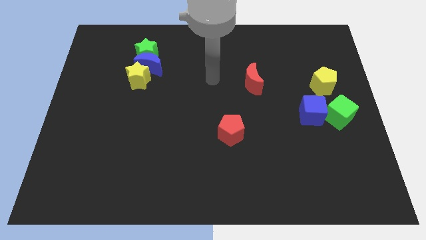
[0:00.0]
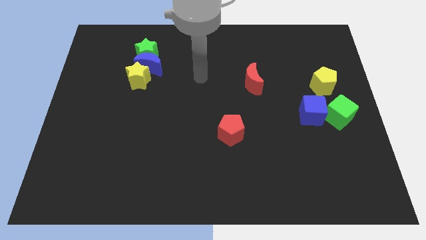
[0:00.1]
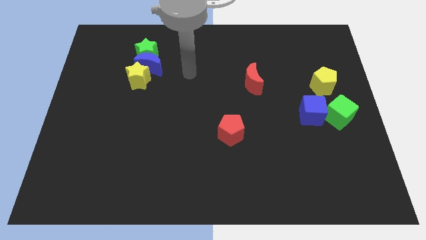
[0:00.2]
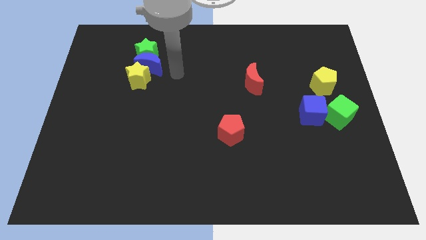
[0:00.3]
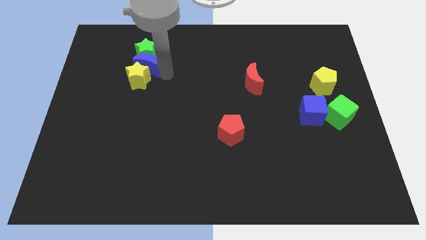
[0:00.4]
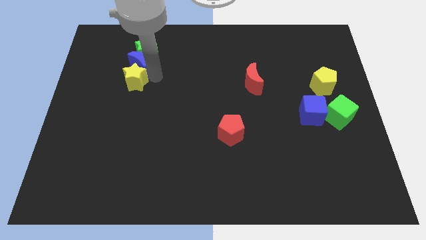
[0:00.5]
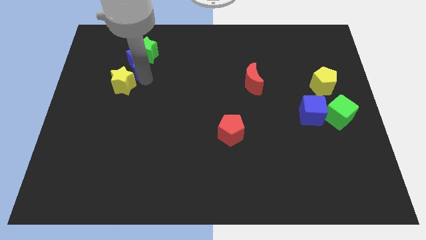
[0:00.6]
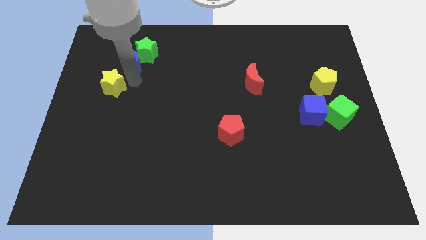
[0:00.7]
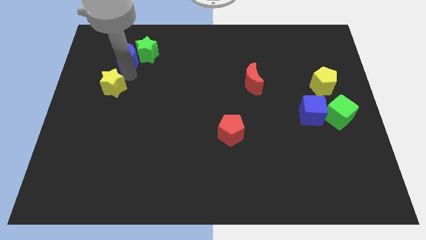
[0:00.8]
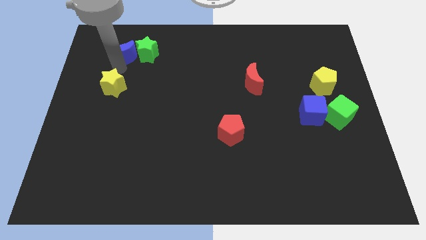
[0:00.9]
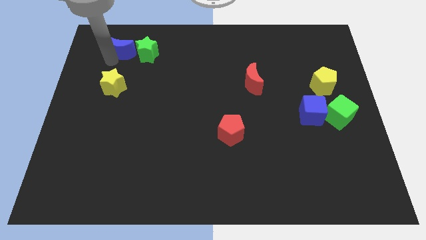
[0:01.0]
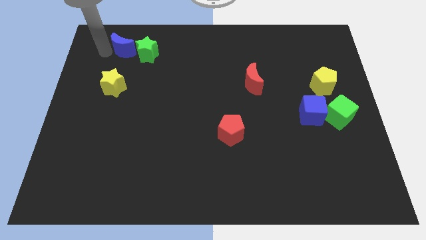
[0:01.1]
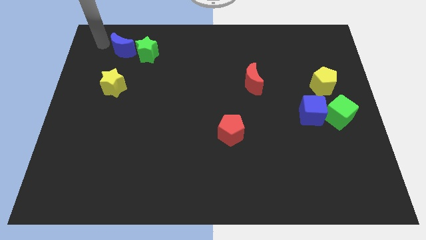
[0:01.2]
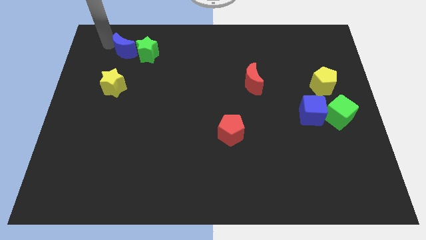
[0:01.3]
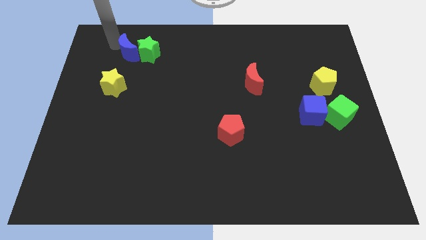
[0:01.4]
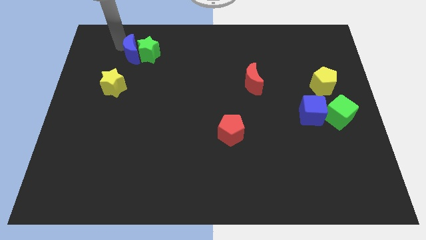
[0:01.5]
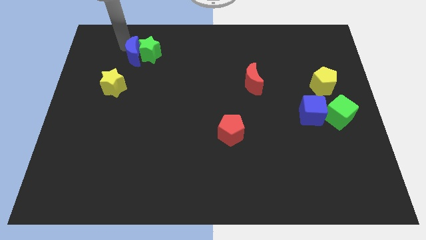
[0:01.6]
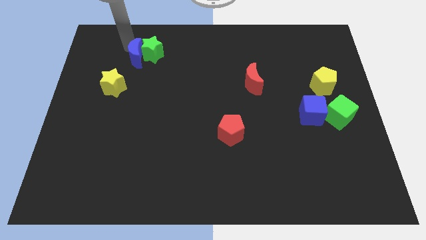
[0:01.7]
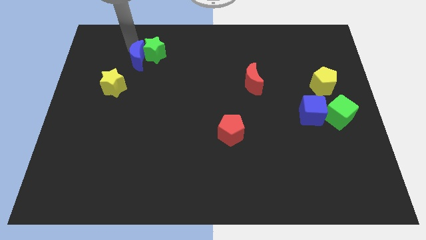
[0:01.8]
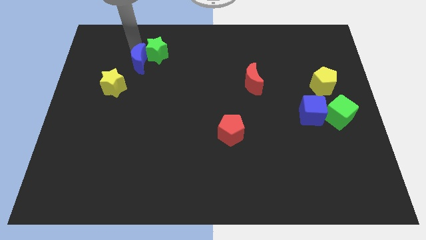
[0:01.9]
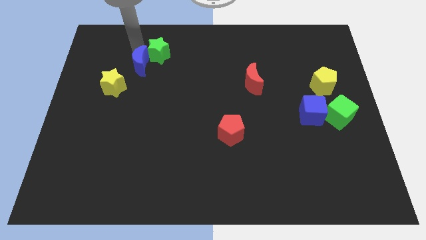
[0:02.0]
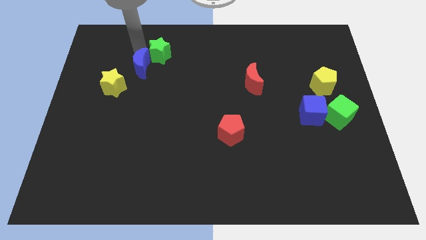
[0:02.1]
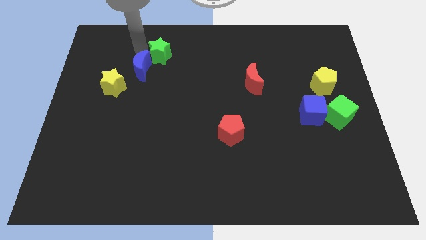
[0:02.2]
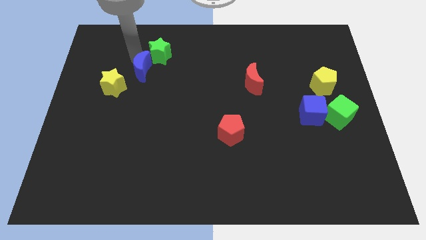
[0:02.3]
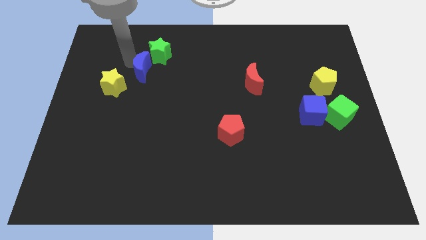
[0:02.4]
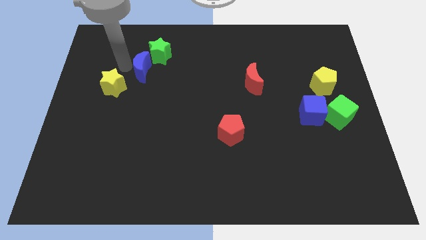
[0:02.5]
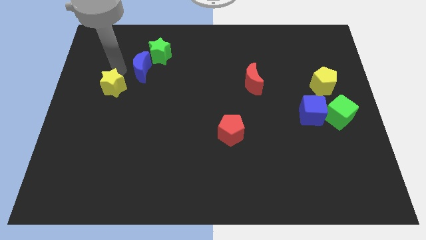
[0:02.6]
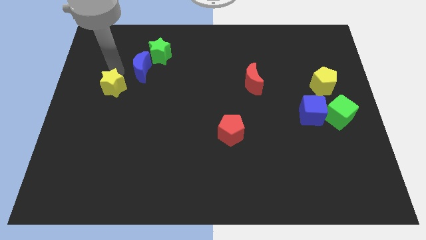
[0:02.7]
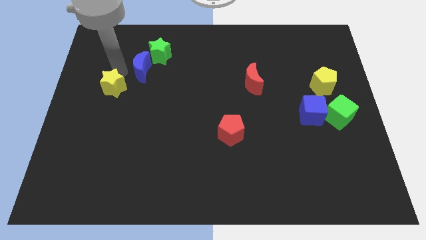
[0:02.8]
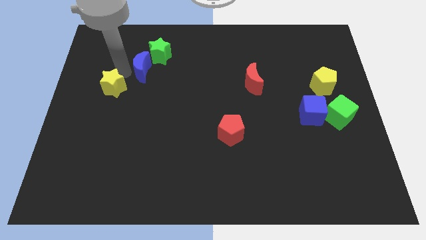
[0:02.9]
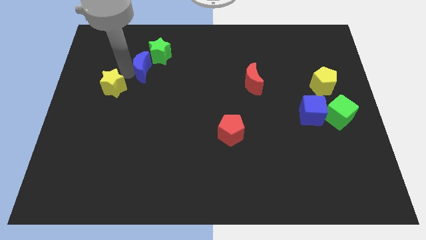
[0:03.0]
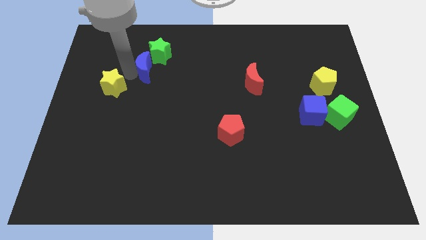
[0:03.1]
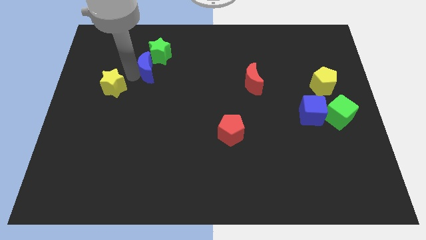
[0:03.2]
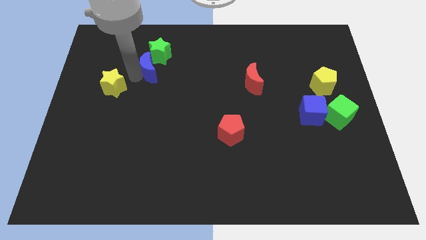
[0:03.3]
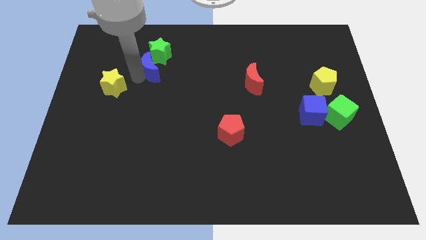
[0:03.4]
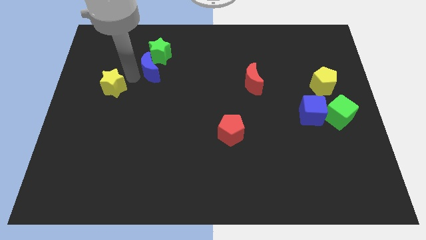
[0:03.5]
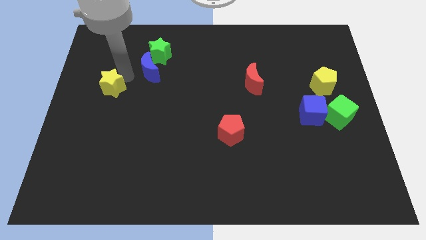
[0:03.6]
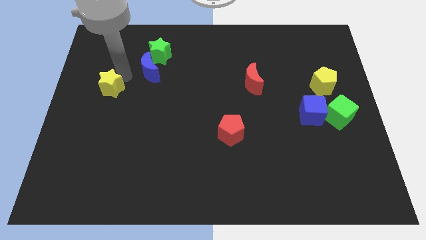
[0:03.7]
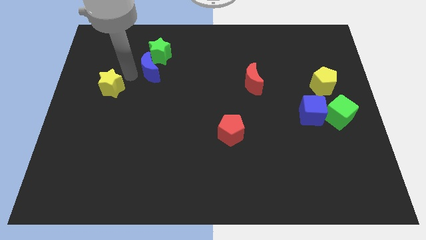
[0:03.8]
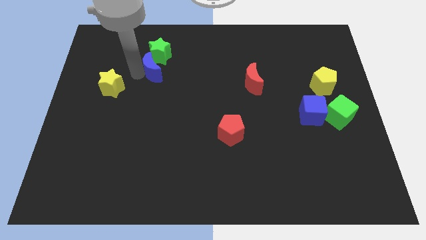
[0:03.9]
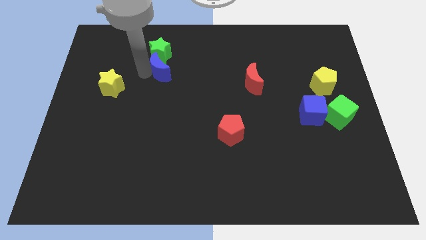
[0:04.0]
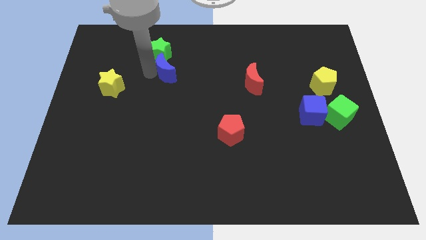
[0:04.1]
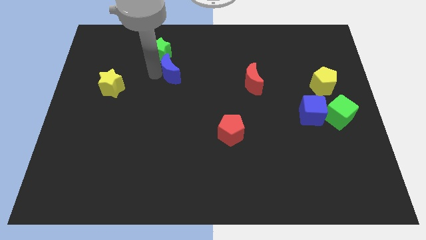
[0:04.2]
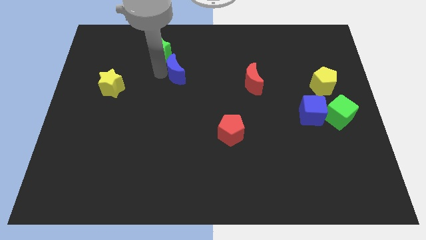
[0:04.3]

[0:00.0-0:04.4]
pull the blue moon apart from the green star and yellow star

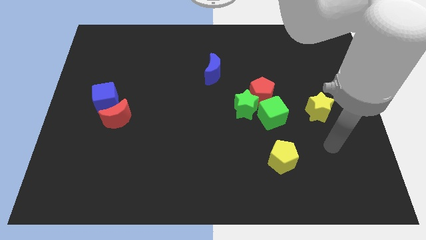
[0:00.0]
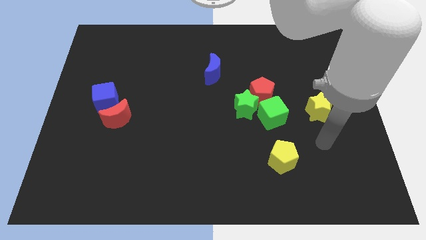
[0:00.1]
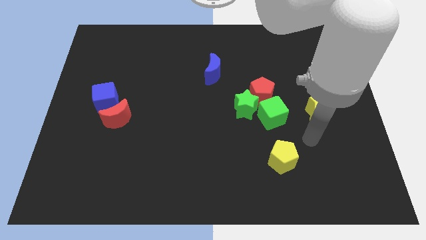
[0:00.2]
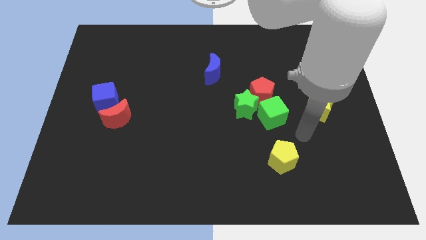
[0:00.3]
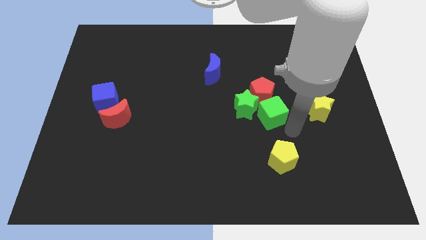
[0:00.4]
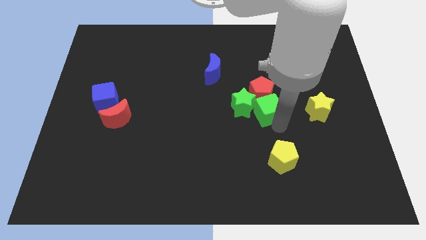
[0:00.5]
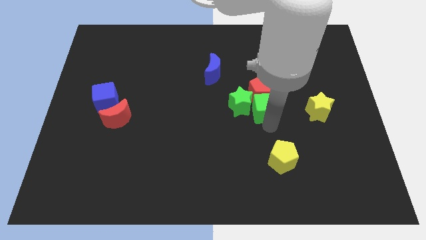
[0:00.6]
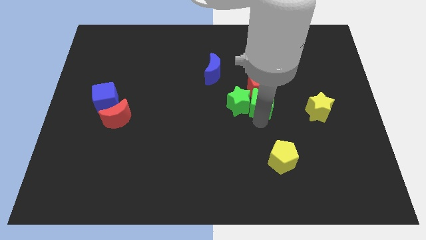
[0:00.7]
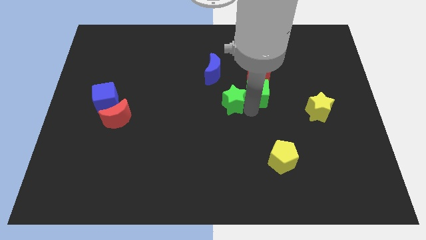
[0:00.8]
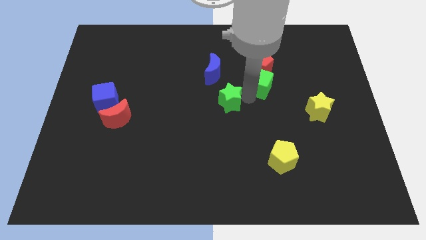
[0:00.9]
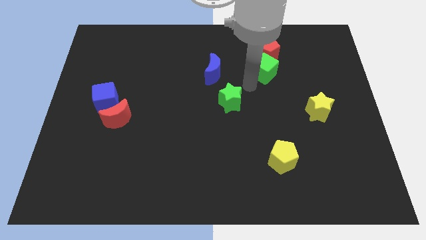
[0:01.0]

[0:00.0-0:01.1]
pull the red pentagon apart from the green star and green cube

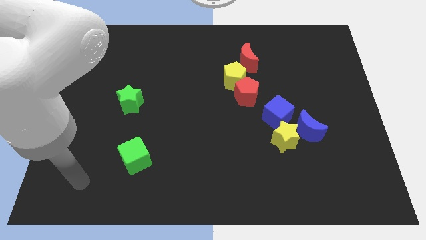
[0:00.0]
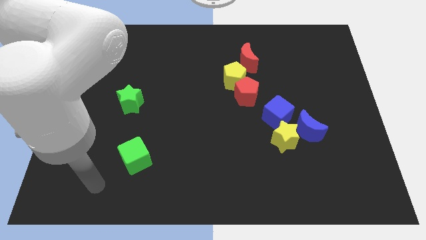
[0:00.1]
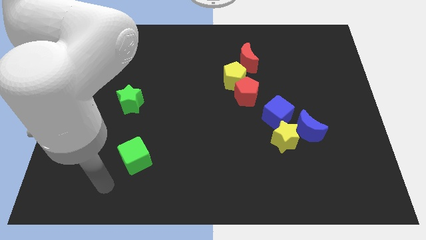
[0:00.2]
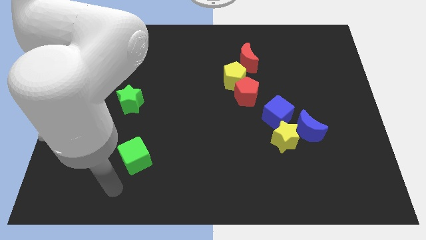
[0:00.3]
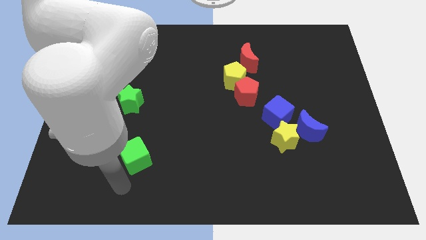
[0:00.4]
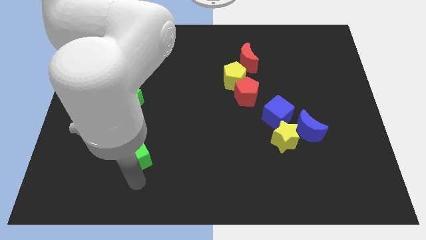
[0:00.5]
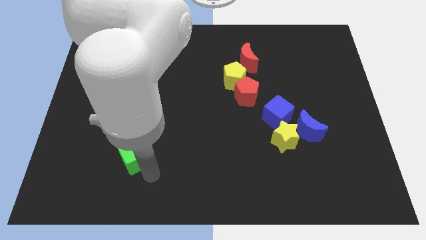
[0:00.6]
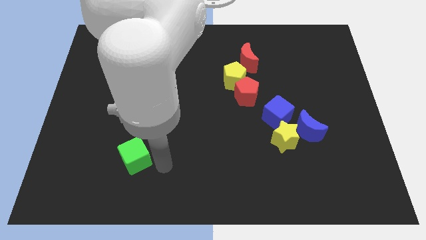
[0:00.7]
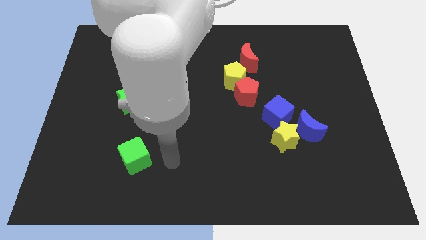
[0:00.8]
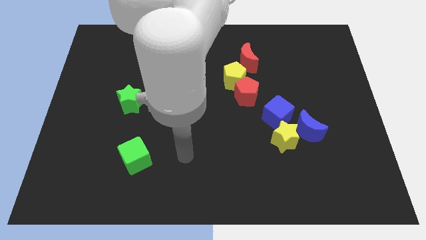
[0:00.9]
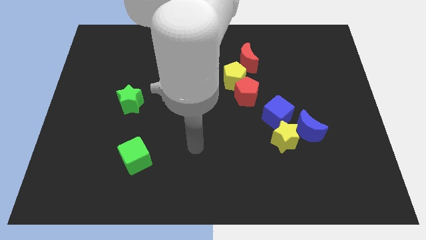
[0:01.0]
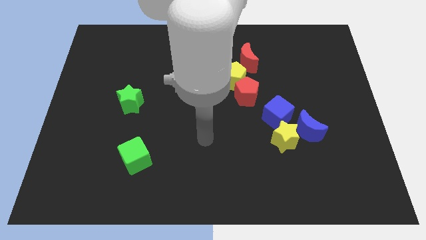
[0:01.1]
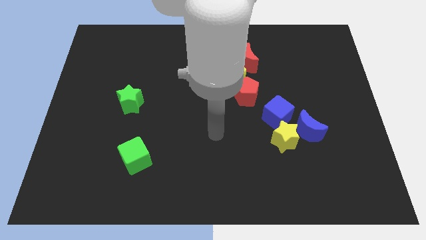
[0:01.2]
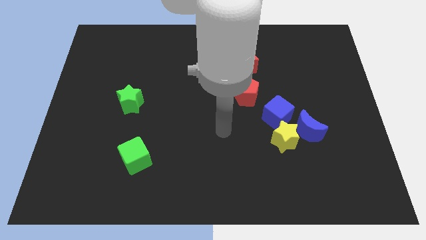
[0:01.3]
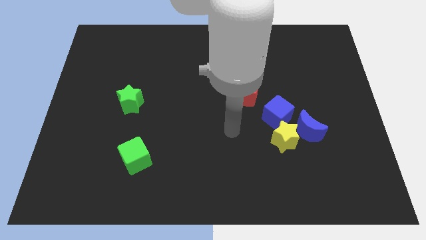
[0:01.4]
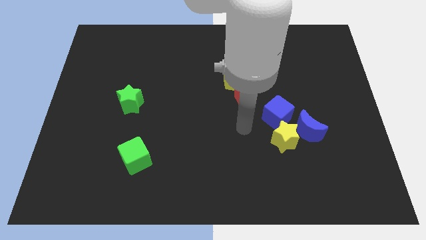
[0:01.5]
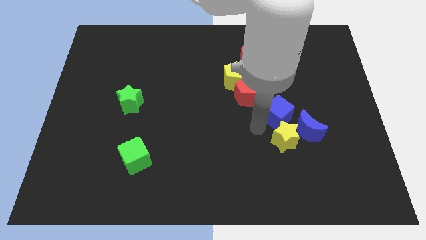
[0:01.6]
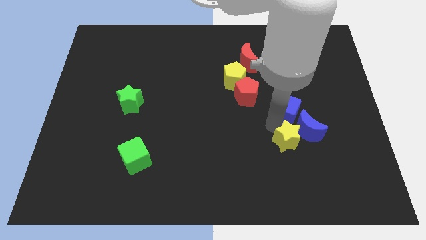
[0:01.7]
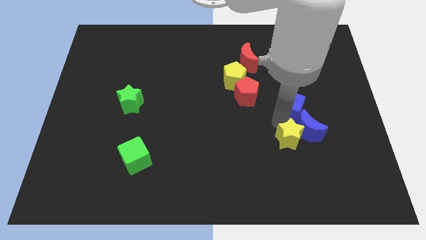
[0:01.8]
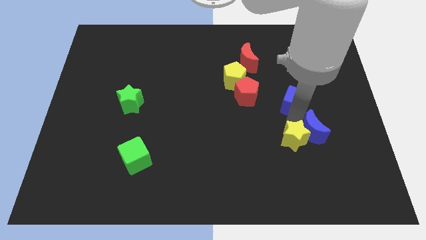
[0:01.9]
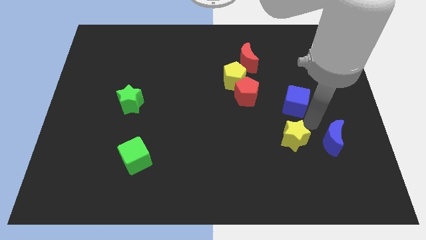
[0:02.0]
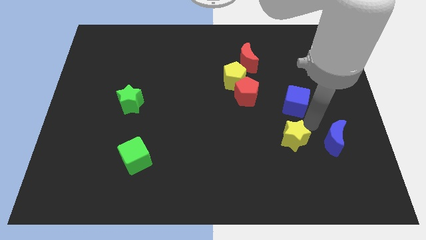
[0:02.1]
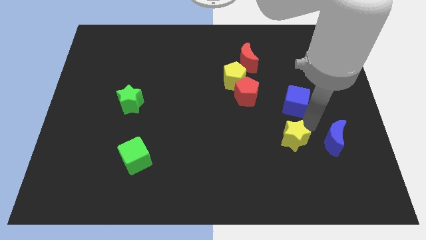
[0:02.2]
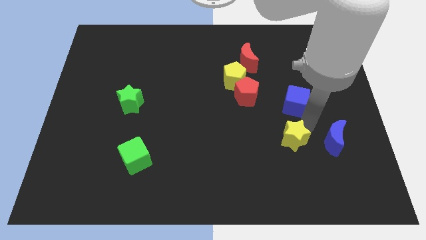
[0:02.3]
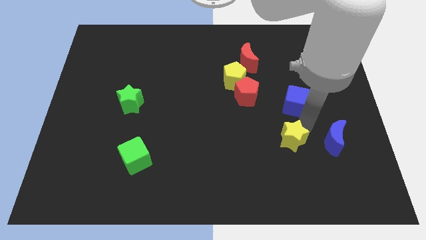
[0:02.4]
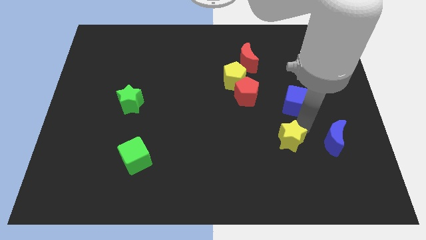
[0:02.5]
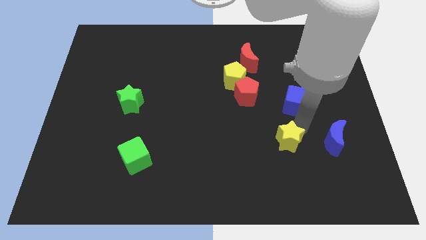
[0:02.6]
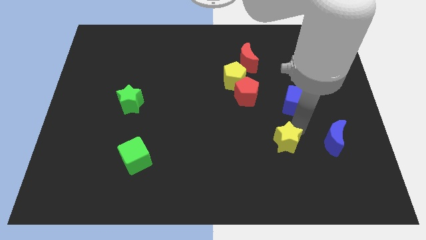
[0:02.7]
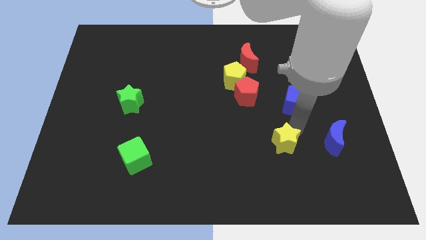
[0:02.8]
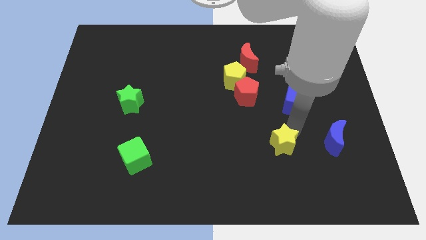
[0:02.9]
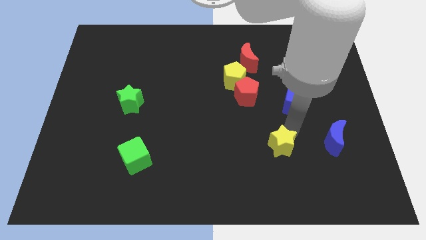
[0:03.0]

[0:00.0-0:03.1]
pull the yellow star apart from the blue moon and blue cube

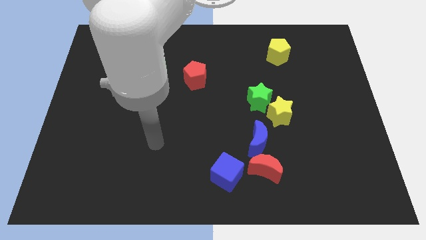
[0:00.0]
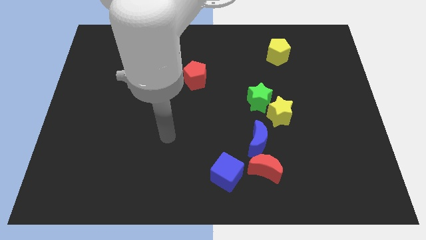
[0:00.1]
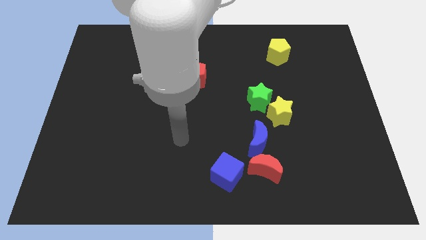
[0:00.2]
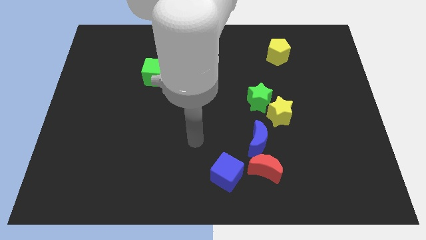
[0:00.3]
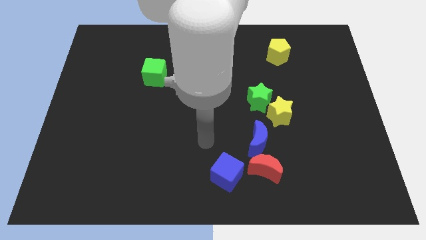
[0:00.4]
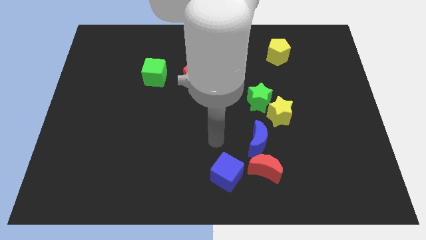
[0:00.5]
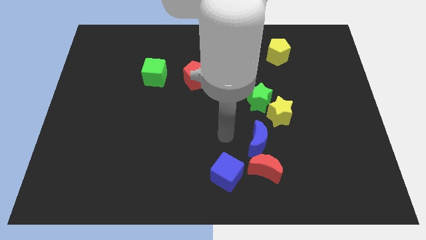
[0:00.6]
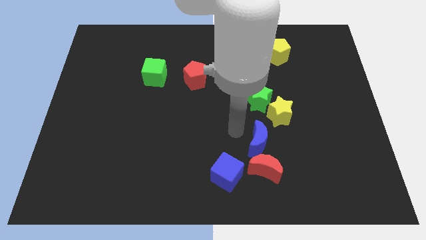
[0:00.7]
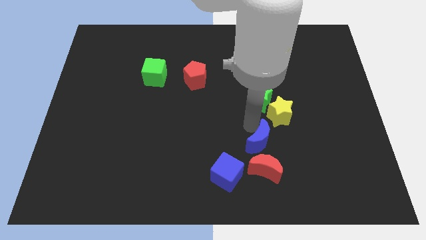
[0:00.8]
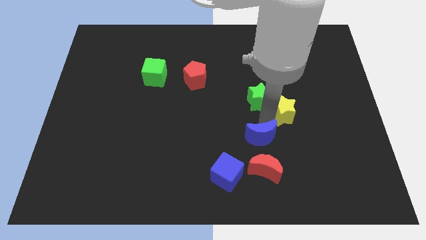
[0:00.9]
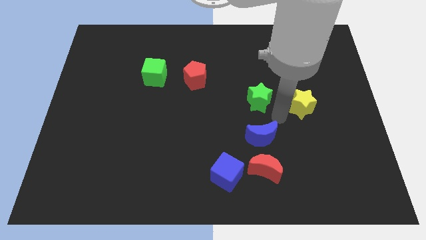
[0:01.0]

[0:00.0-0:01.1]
pull the green star apart from the yellow star
